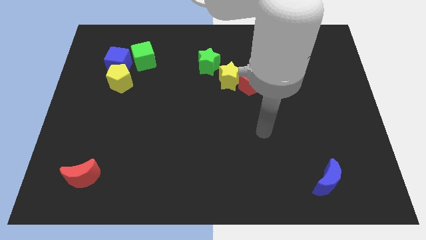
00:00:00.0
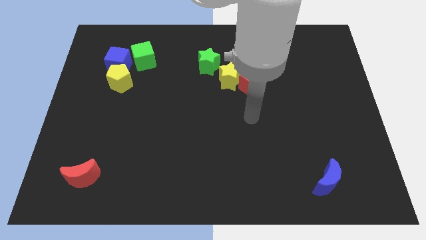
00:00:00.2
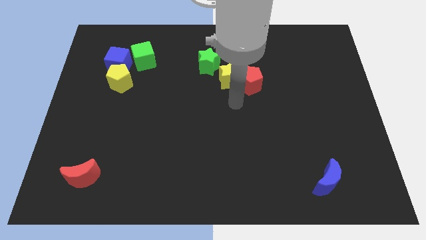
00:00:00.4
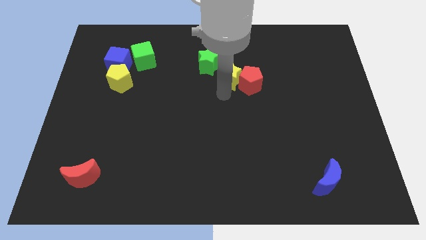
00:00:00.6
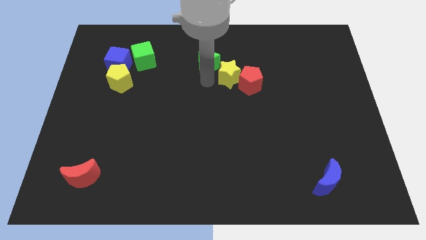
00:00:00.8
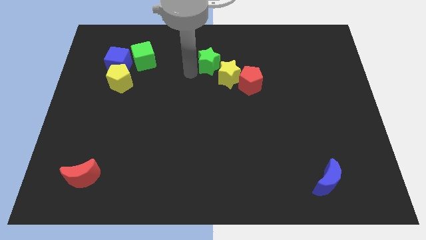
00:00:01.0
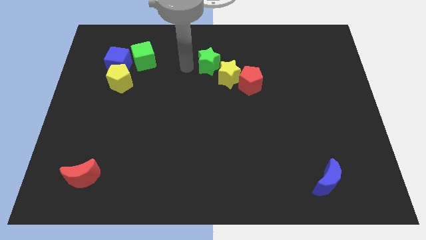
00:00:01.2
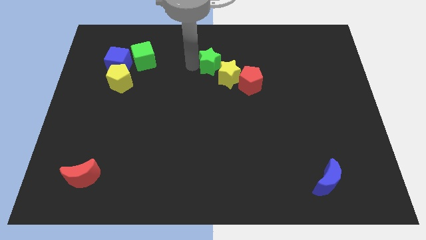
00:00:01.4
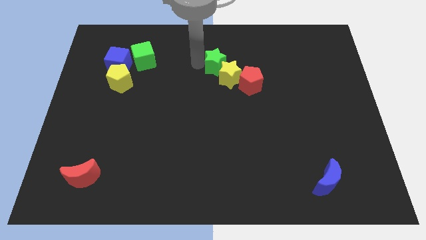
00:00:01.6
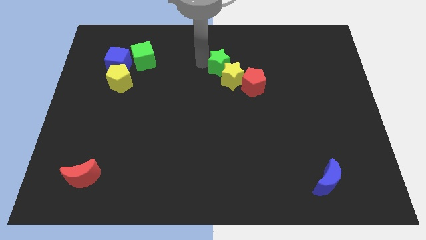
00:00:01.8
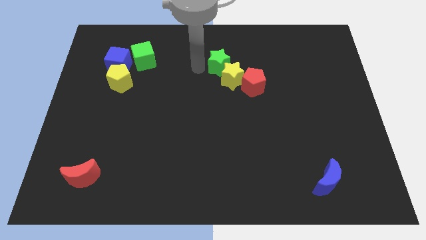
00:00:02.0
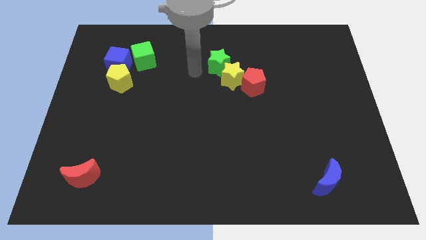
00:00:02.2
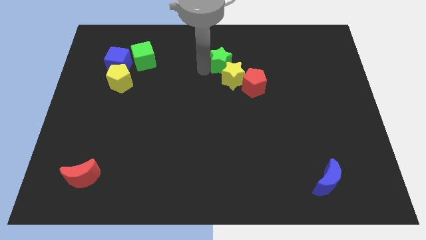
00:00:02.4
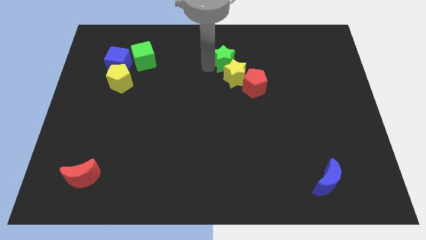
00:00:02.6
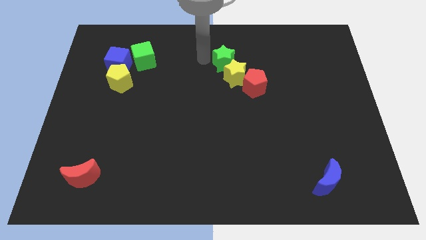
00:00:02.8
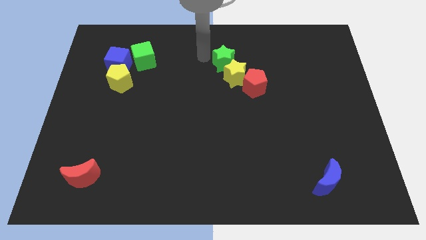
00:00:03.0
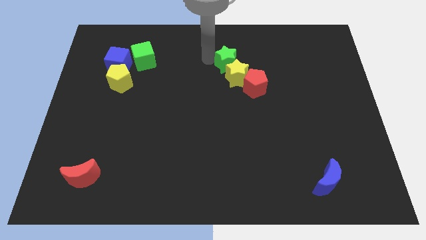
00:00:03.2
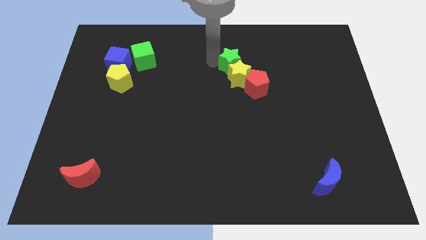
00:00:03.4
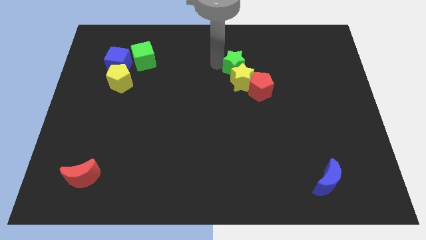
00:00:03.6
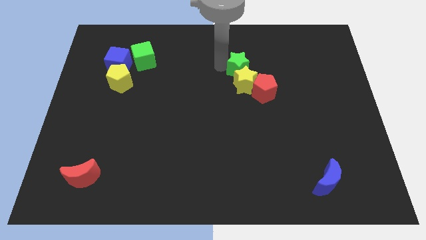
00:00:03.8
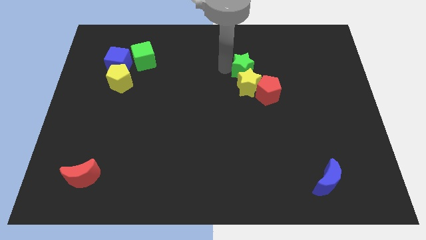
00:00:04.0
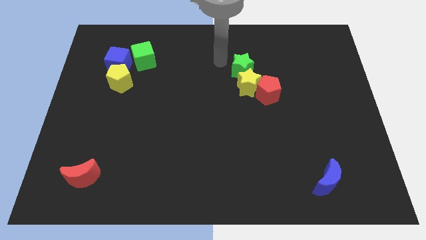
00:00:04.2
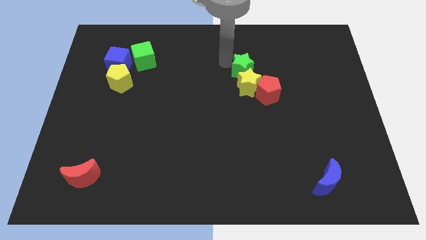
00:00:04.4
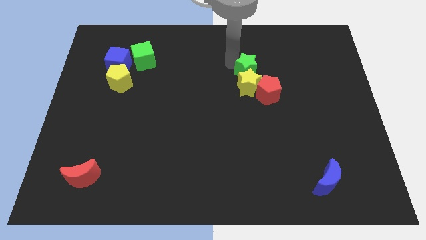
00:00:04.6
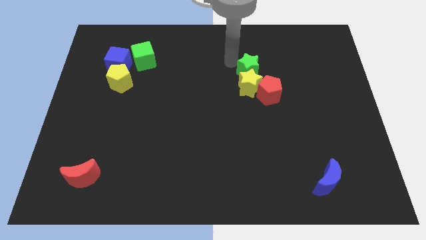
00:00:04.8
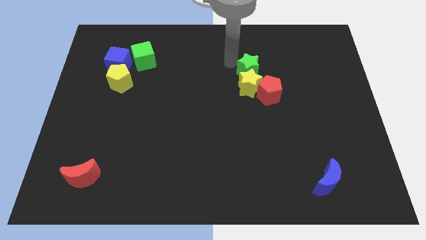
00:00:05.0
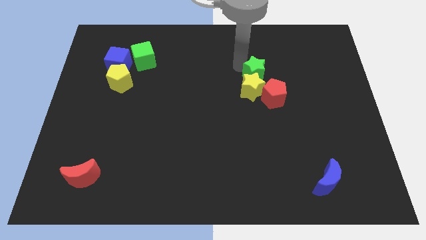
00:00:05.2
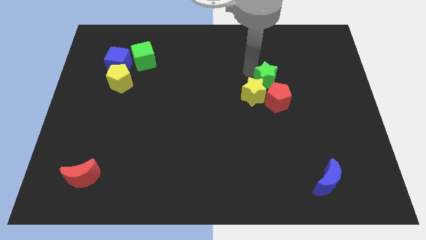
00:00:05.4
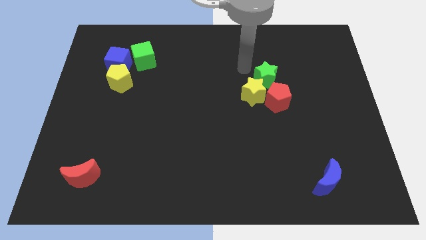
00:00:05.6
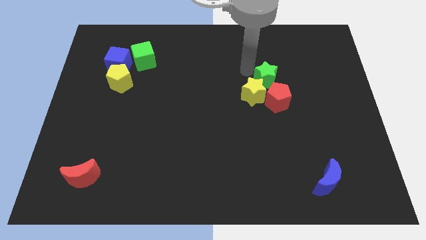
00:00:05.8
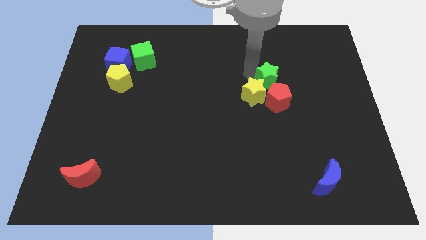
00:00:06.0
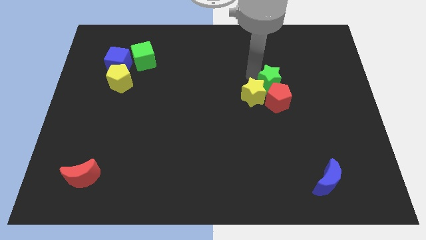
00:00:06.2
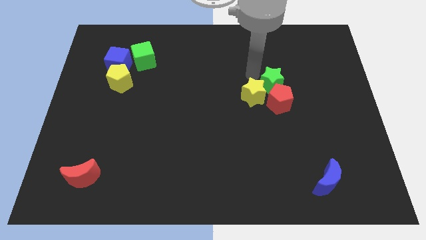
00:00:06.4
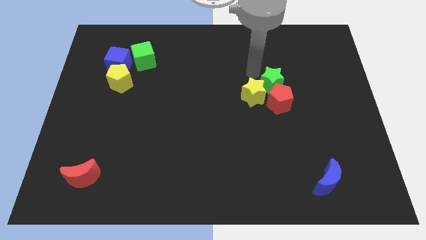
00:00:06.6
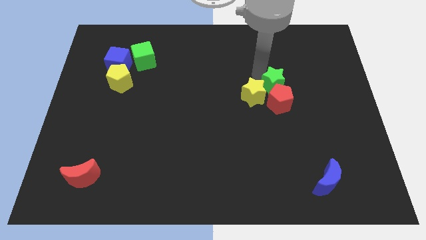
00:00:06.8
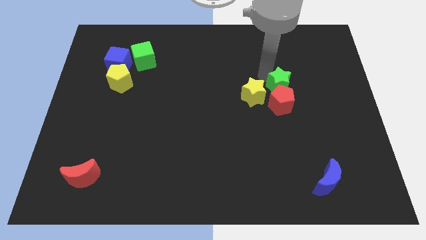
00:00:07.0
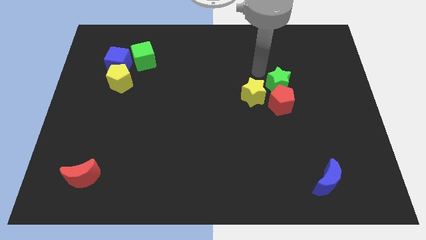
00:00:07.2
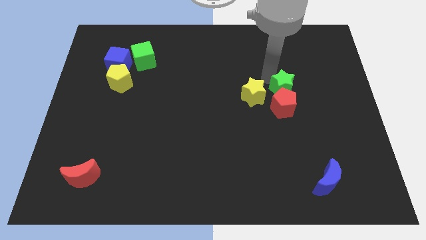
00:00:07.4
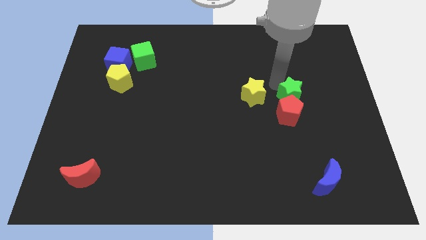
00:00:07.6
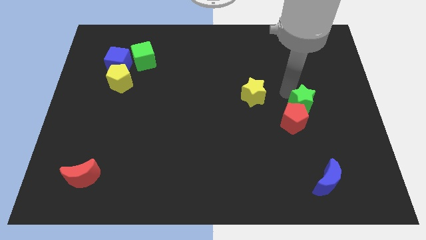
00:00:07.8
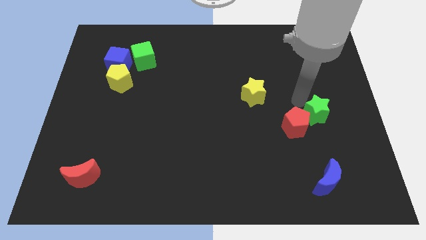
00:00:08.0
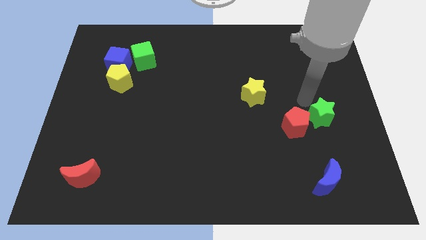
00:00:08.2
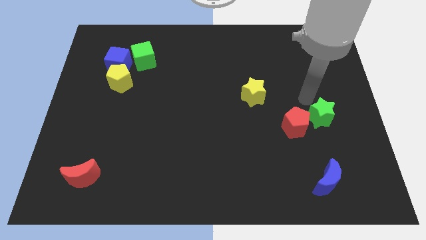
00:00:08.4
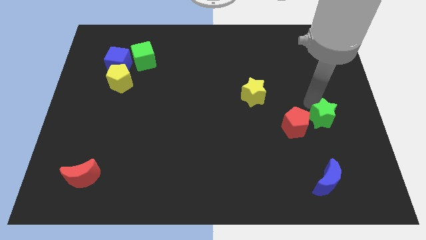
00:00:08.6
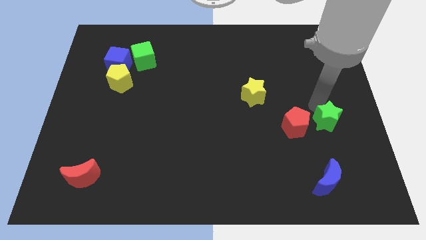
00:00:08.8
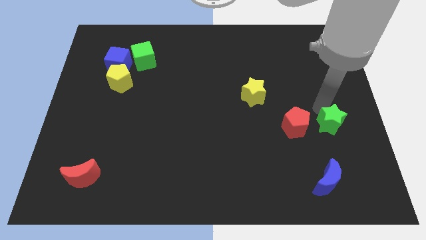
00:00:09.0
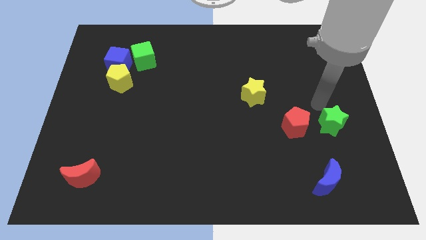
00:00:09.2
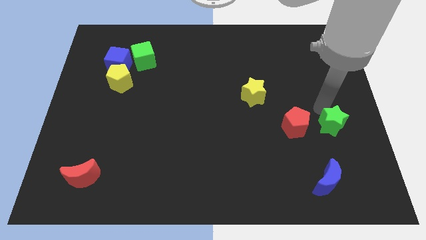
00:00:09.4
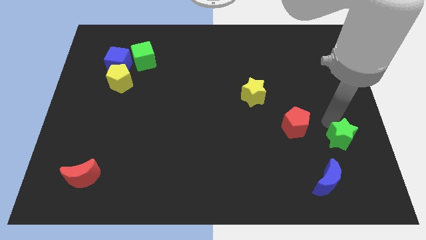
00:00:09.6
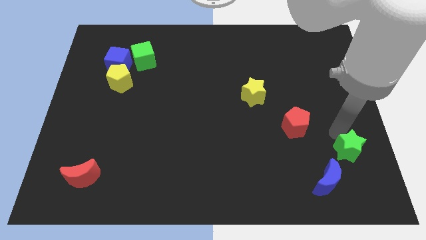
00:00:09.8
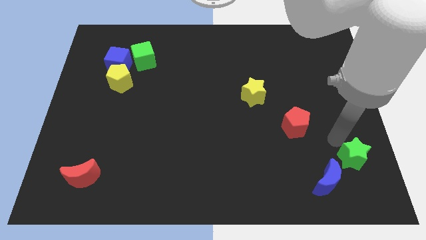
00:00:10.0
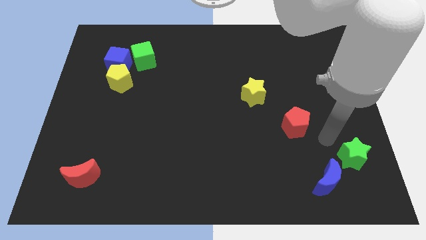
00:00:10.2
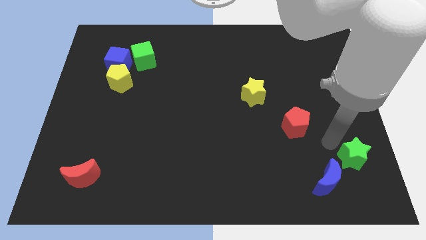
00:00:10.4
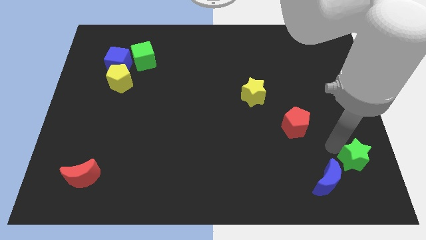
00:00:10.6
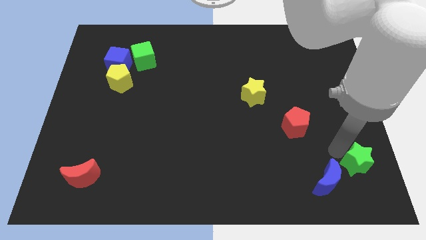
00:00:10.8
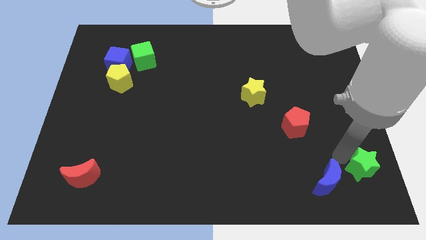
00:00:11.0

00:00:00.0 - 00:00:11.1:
slide the green star to the bottom right of the board

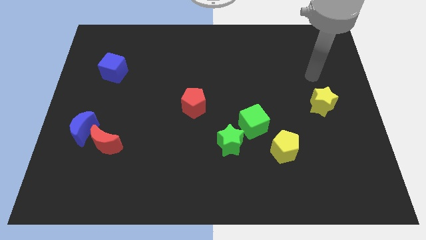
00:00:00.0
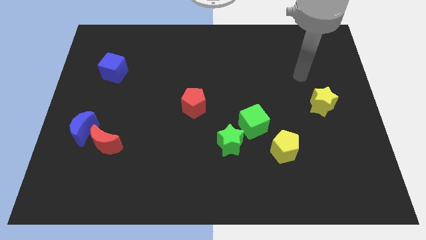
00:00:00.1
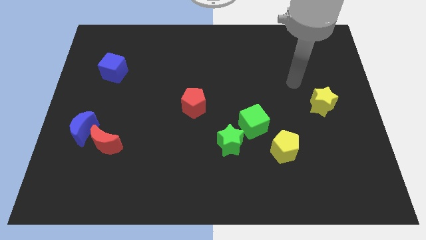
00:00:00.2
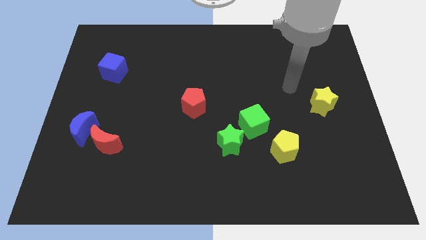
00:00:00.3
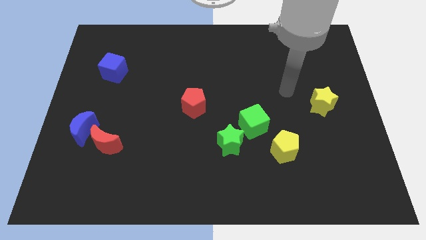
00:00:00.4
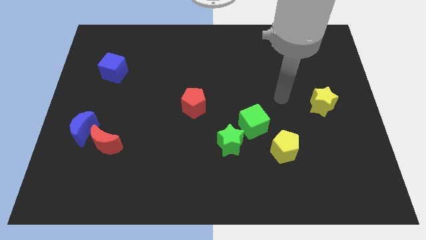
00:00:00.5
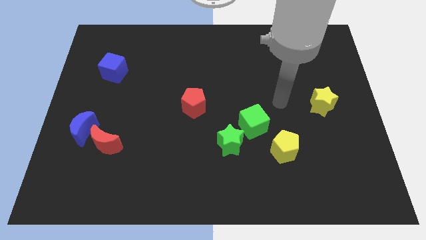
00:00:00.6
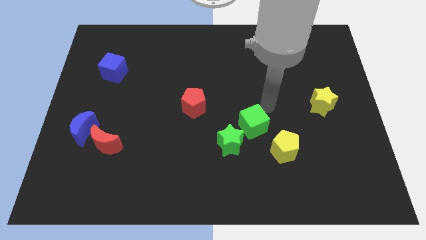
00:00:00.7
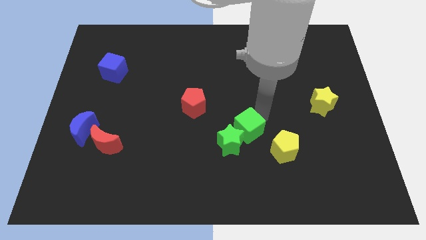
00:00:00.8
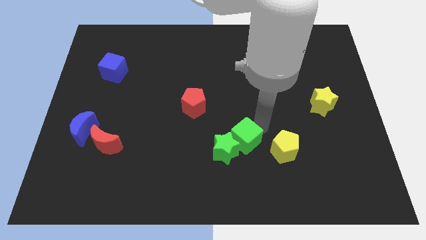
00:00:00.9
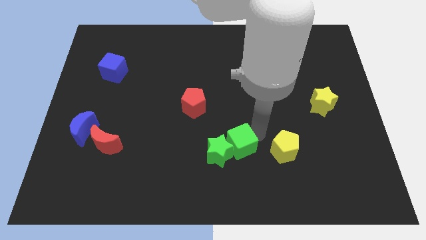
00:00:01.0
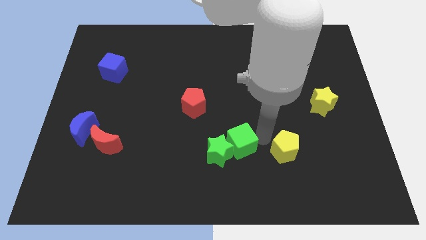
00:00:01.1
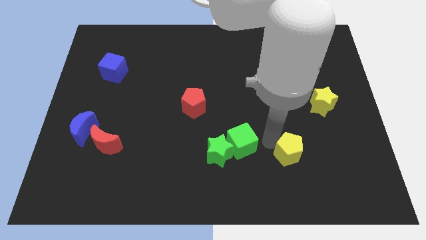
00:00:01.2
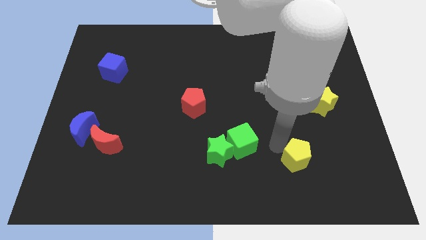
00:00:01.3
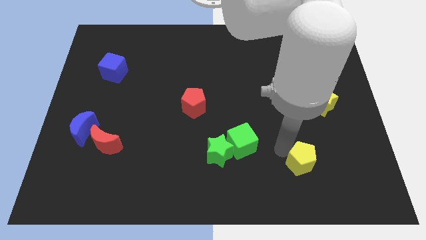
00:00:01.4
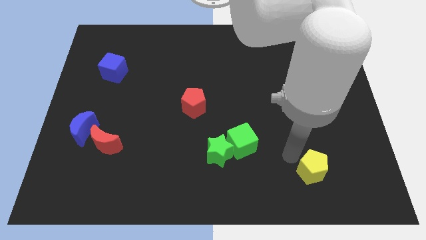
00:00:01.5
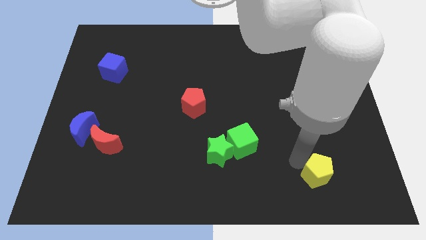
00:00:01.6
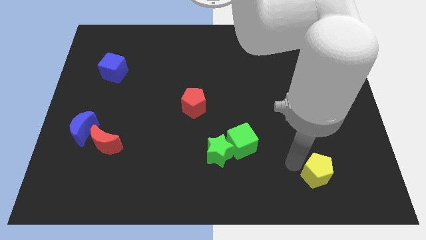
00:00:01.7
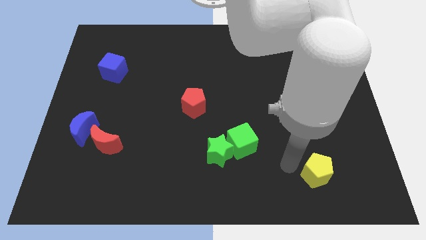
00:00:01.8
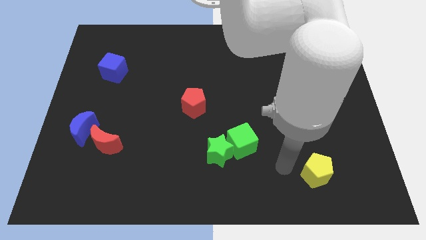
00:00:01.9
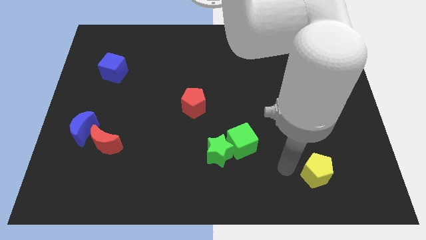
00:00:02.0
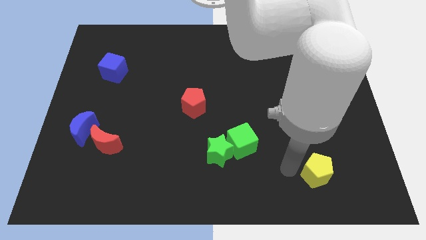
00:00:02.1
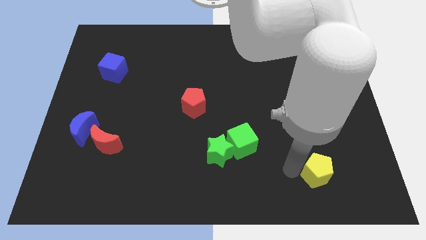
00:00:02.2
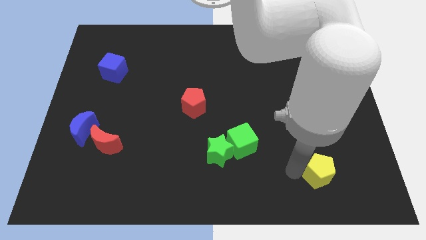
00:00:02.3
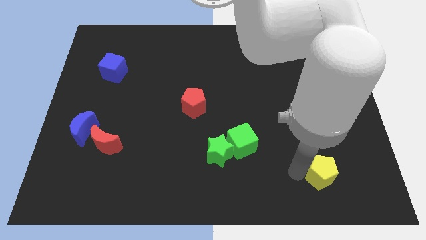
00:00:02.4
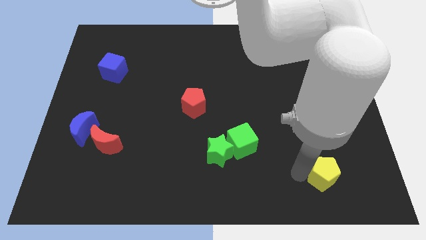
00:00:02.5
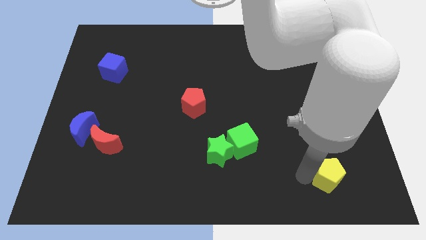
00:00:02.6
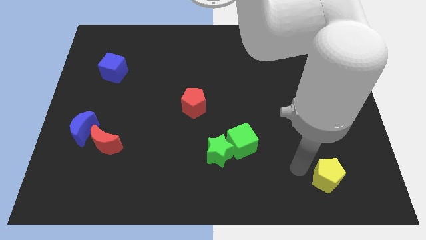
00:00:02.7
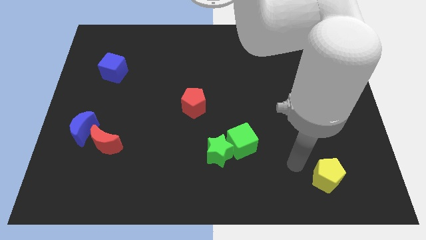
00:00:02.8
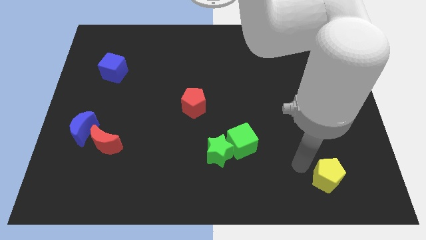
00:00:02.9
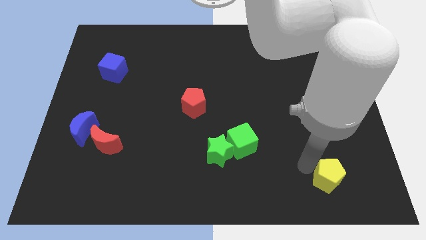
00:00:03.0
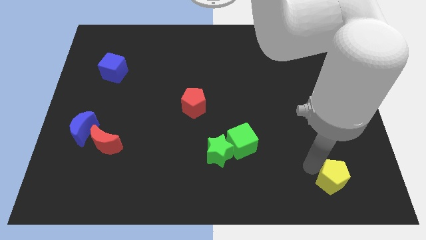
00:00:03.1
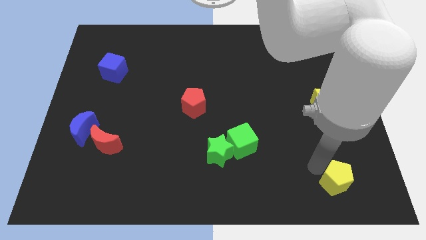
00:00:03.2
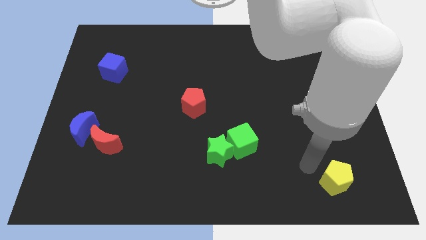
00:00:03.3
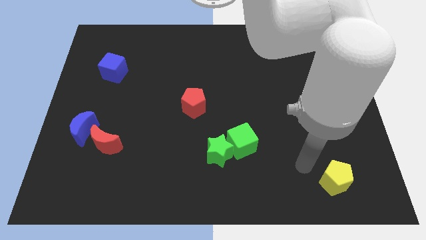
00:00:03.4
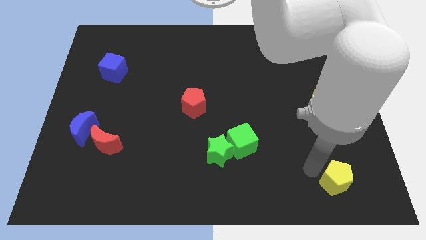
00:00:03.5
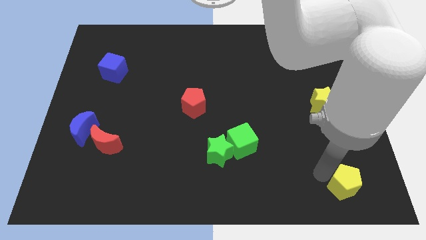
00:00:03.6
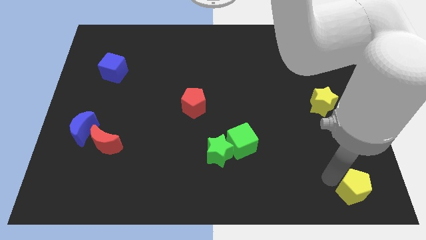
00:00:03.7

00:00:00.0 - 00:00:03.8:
move the yellow pentagon to the bottom right corner
